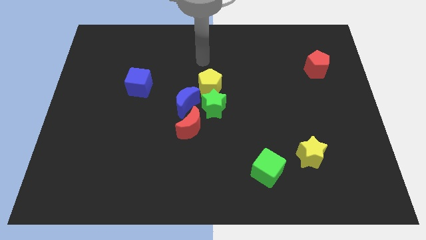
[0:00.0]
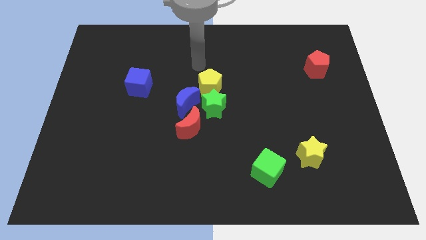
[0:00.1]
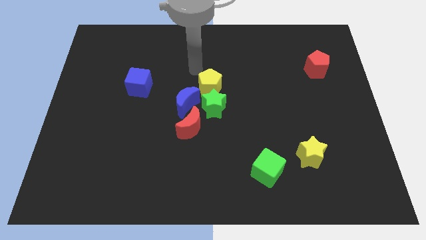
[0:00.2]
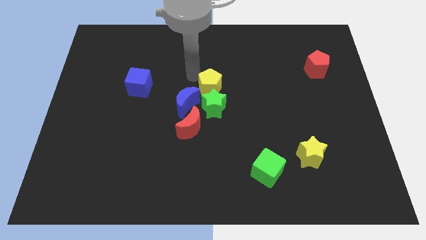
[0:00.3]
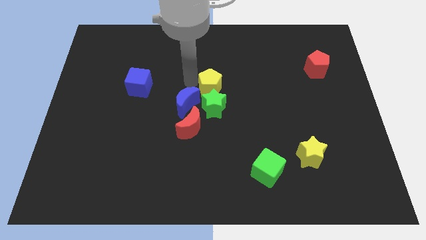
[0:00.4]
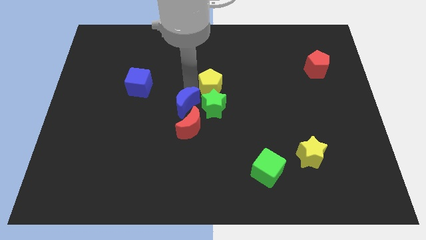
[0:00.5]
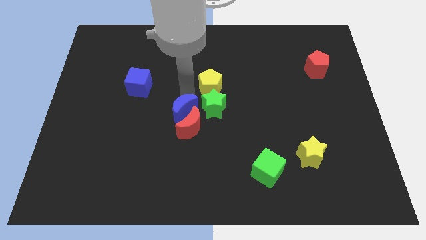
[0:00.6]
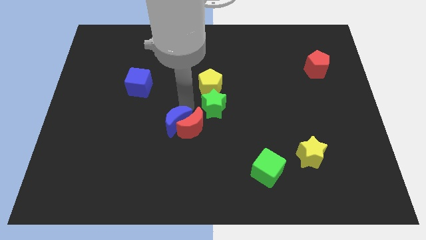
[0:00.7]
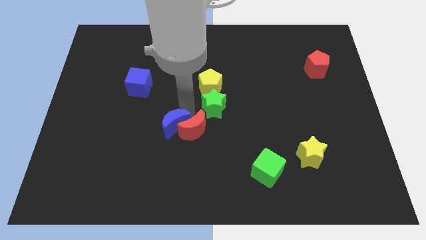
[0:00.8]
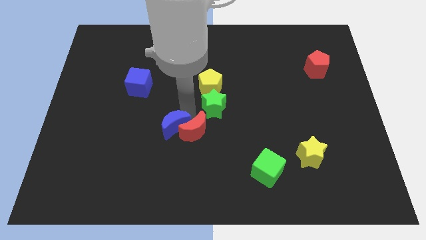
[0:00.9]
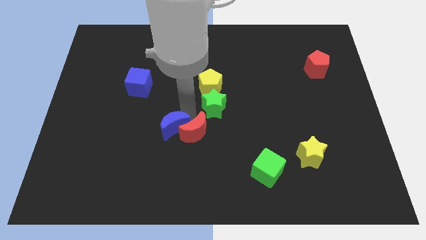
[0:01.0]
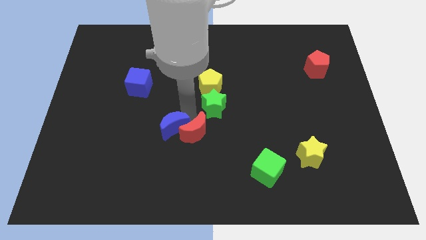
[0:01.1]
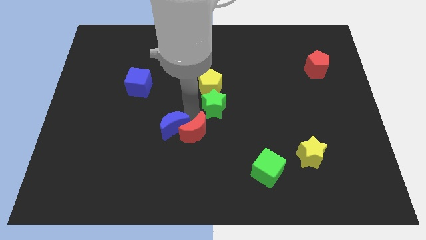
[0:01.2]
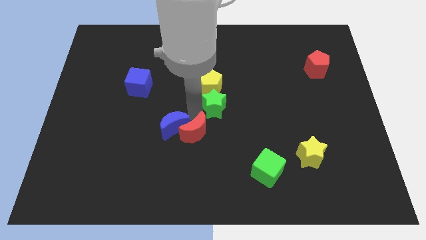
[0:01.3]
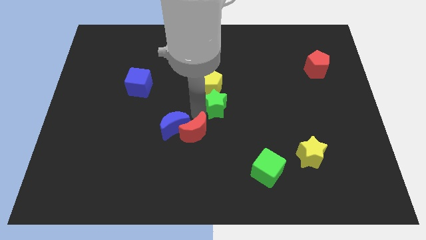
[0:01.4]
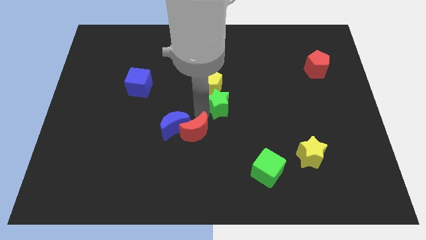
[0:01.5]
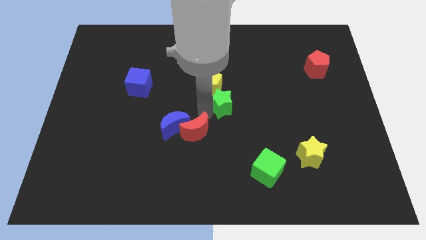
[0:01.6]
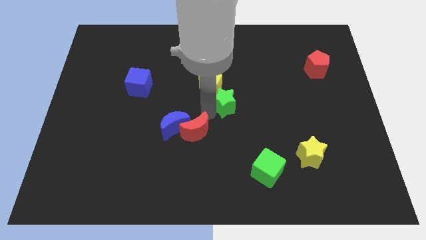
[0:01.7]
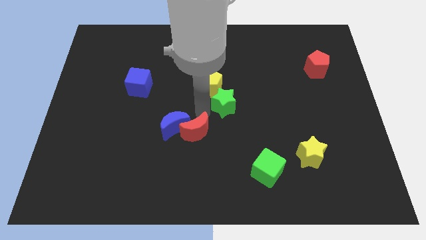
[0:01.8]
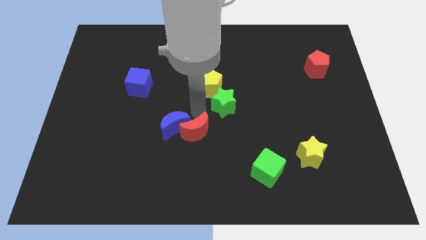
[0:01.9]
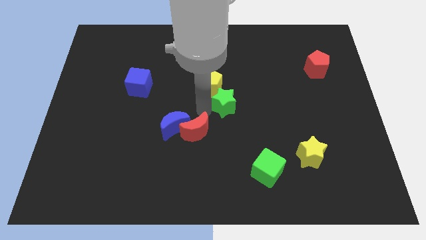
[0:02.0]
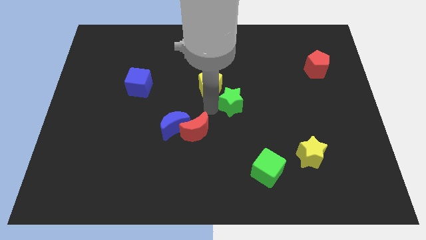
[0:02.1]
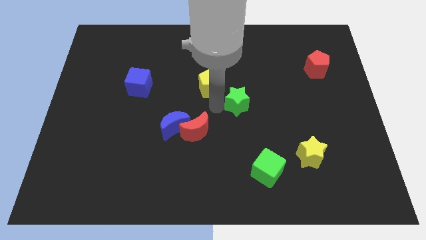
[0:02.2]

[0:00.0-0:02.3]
move the green star away from the yellow pentagon, blue moon, and red moon

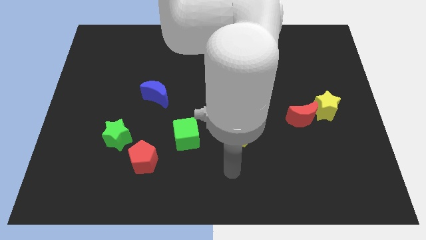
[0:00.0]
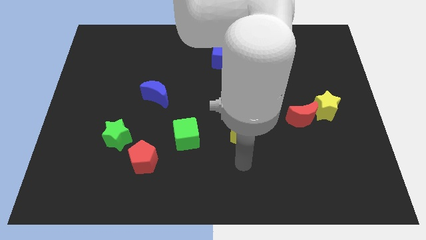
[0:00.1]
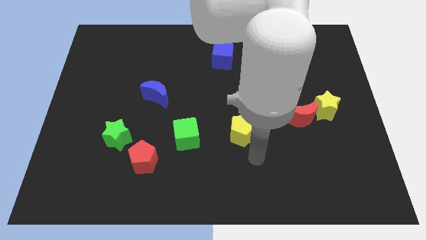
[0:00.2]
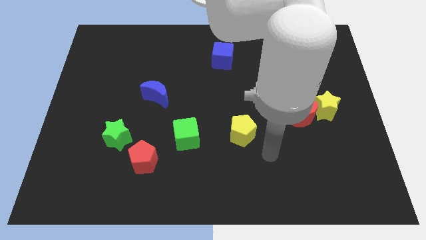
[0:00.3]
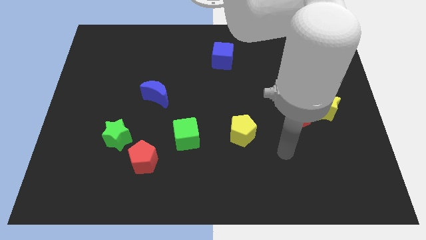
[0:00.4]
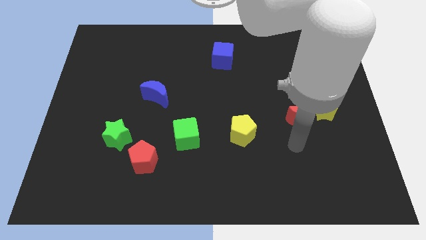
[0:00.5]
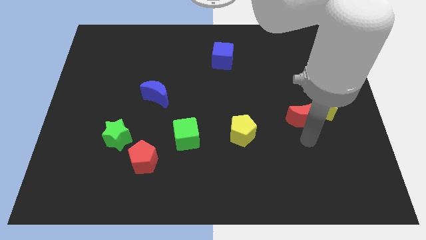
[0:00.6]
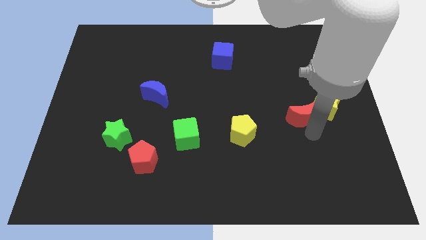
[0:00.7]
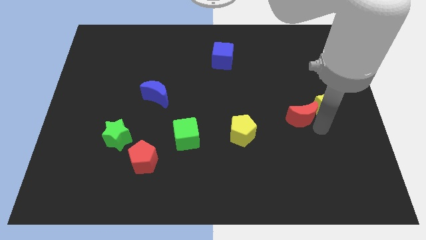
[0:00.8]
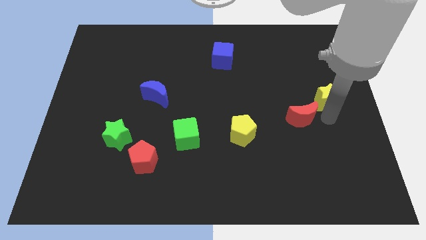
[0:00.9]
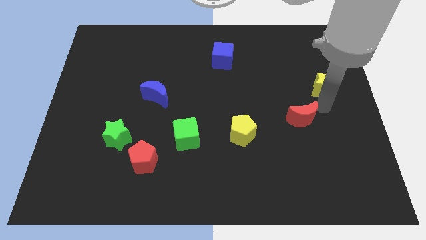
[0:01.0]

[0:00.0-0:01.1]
pull the red moon apart from the yellow star

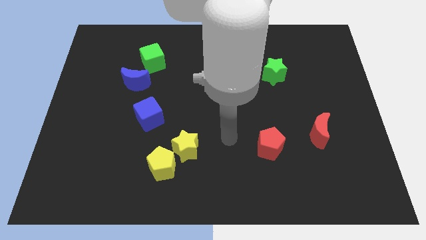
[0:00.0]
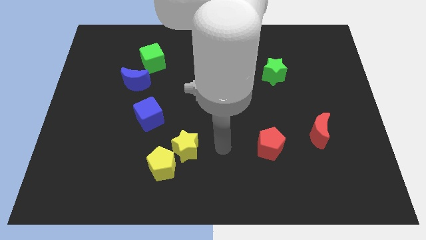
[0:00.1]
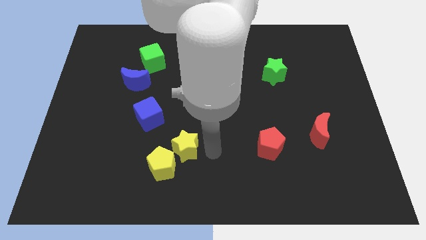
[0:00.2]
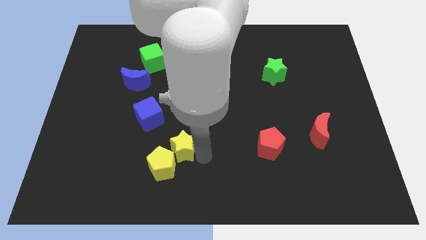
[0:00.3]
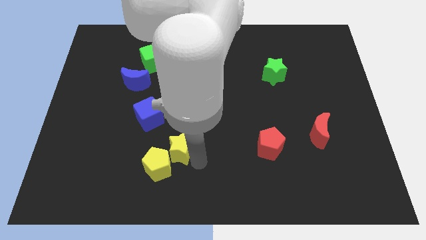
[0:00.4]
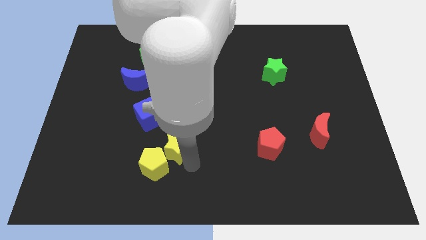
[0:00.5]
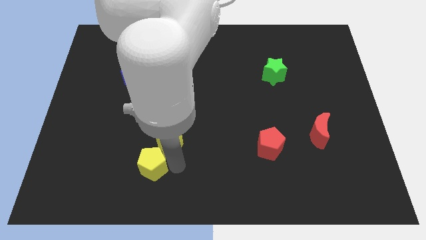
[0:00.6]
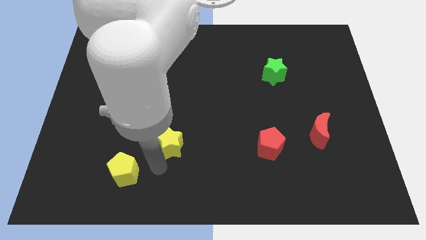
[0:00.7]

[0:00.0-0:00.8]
move the yellow star away from the yellow pentagon

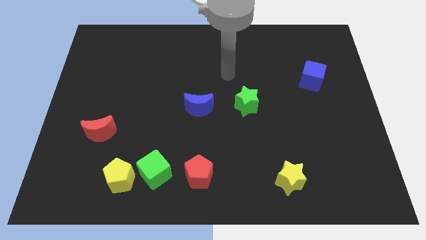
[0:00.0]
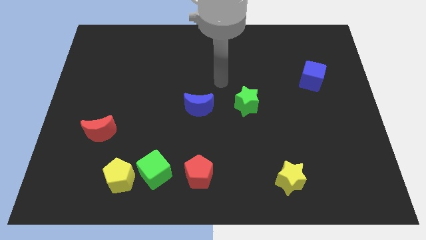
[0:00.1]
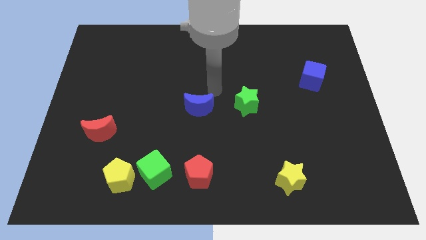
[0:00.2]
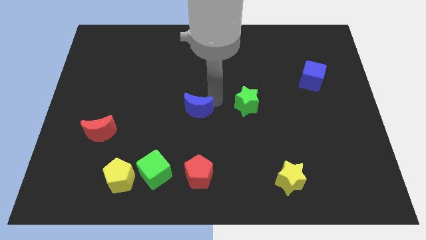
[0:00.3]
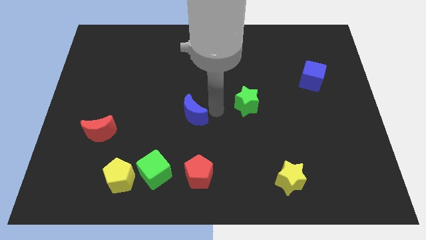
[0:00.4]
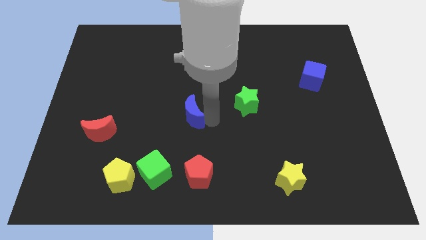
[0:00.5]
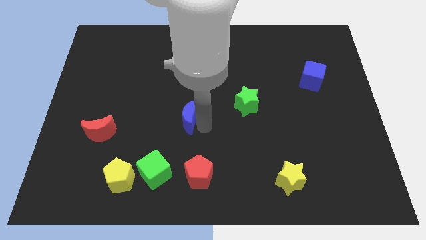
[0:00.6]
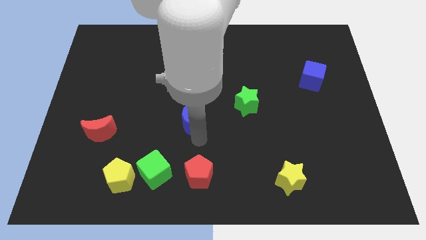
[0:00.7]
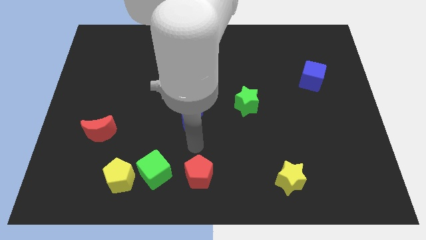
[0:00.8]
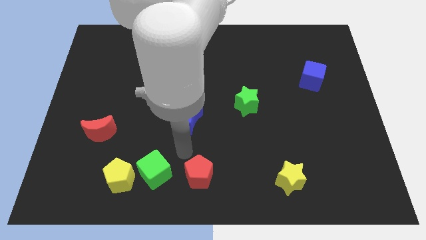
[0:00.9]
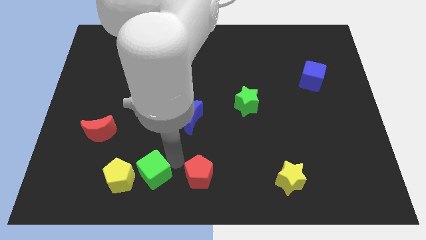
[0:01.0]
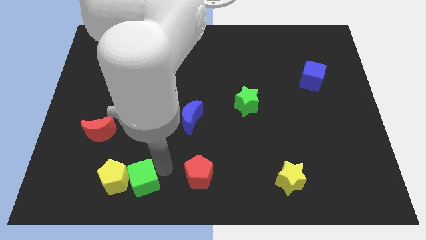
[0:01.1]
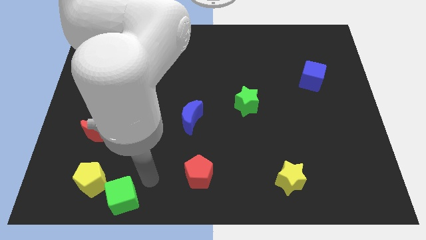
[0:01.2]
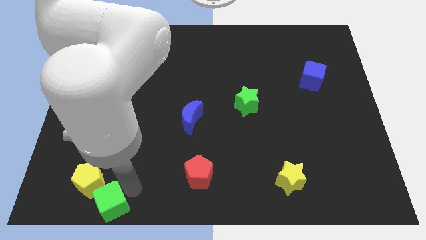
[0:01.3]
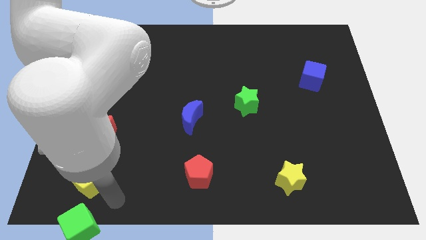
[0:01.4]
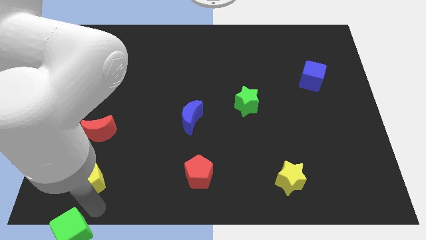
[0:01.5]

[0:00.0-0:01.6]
separate the yellow pentagon from the green cube

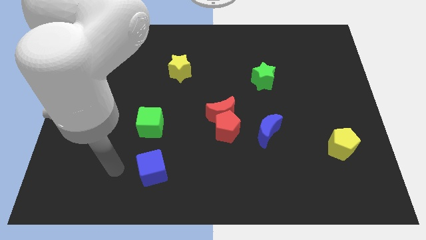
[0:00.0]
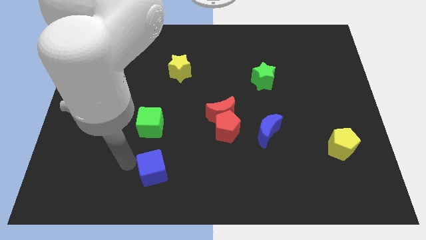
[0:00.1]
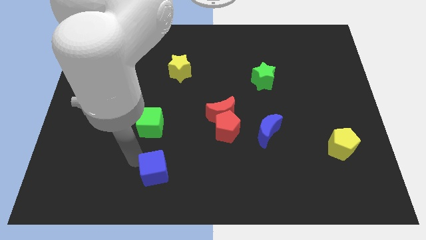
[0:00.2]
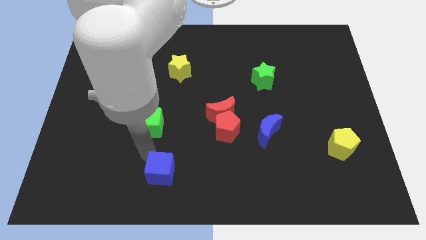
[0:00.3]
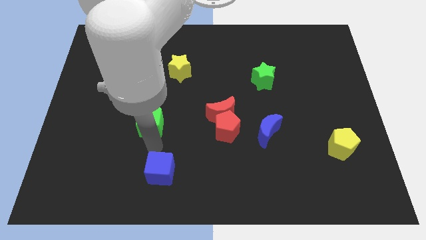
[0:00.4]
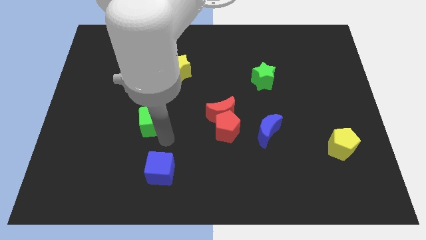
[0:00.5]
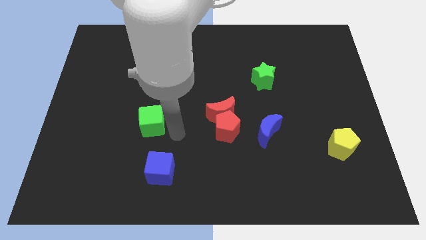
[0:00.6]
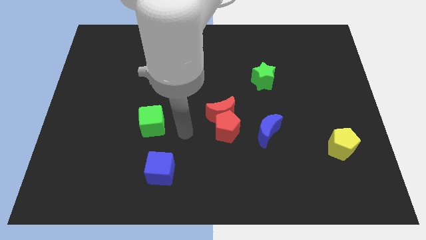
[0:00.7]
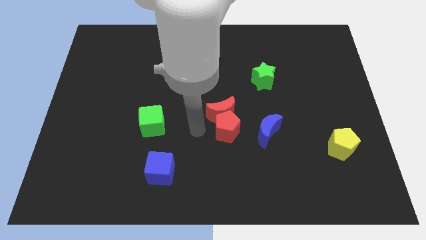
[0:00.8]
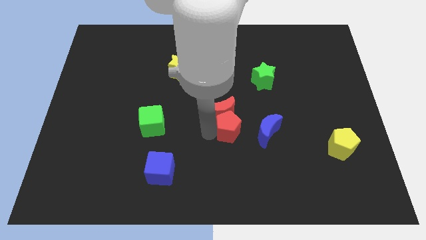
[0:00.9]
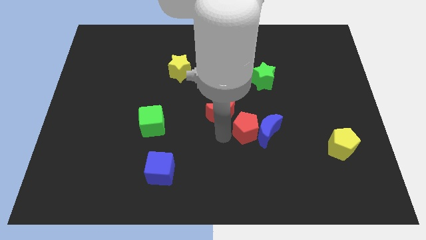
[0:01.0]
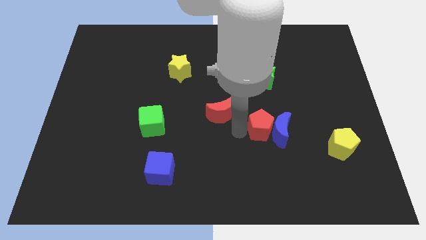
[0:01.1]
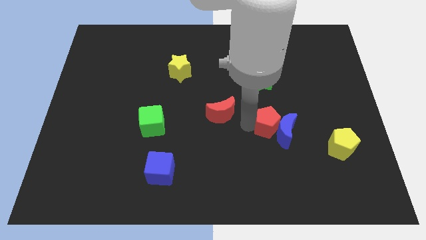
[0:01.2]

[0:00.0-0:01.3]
separate the red moon from the red pentagon

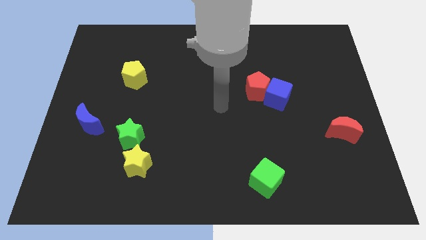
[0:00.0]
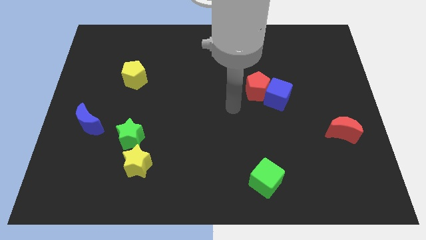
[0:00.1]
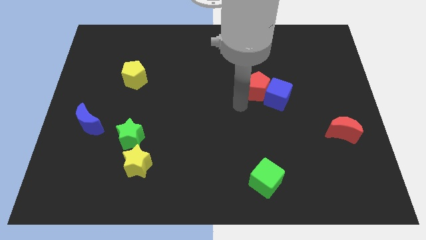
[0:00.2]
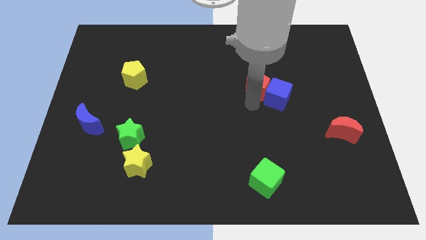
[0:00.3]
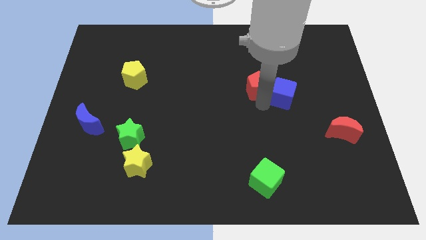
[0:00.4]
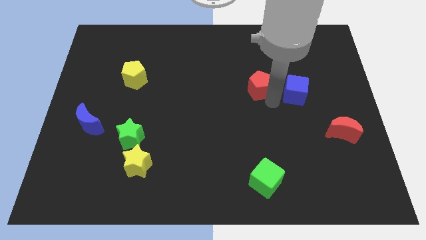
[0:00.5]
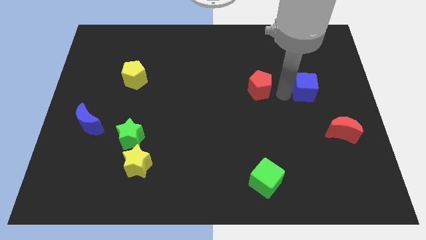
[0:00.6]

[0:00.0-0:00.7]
move the red pentagon away from the blue cube

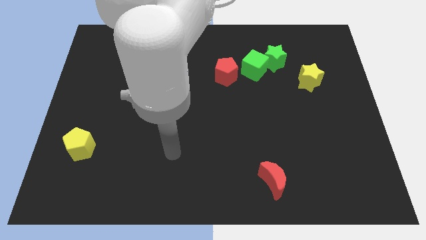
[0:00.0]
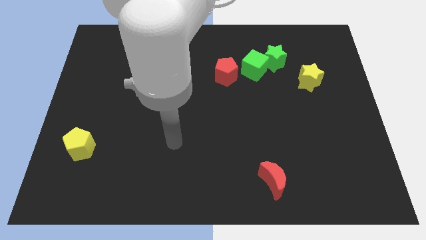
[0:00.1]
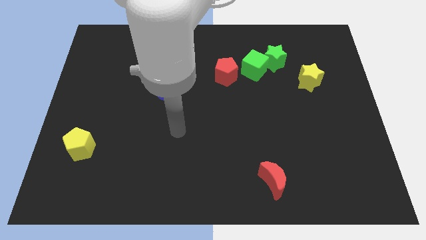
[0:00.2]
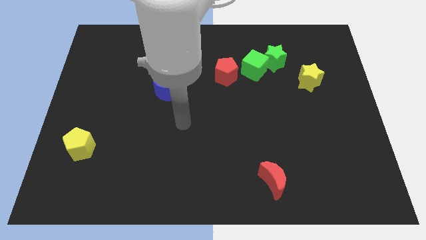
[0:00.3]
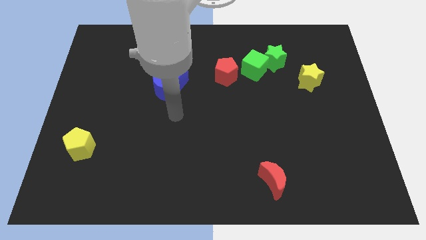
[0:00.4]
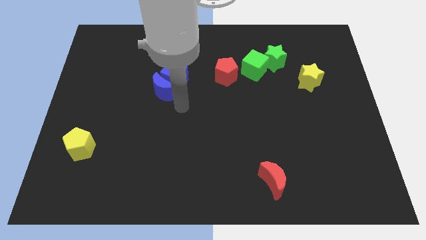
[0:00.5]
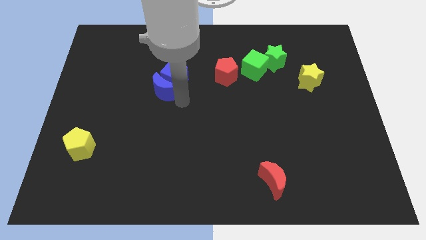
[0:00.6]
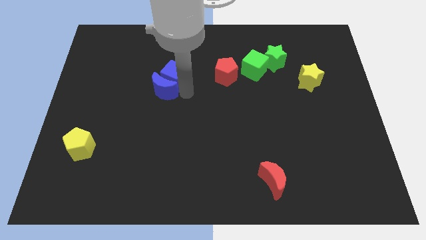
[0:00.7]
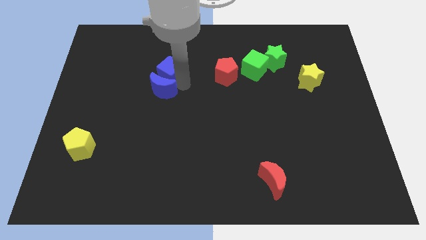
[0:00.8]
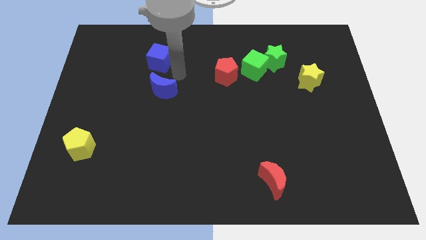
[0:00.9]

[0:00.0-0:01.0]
move the blue moon away from the blue cube

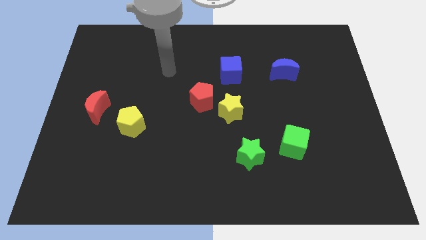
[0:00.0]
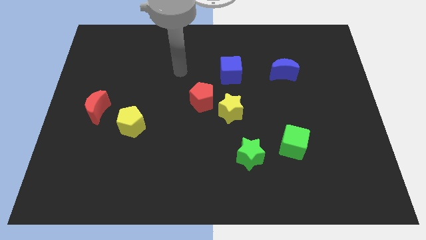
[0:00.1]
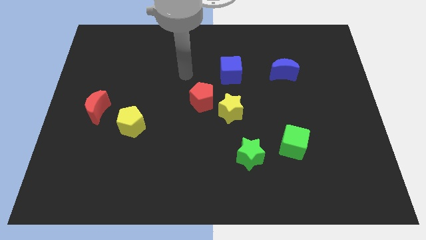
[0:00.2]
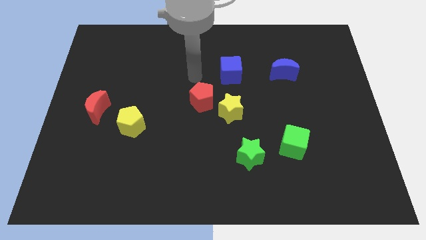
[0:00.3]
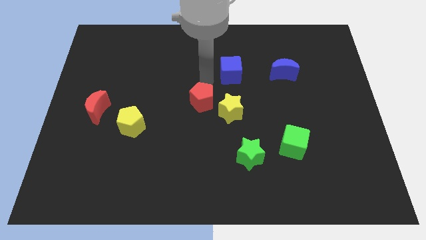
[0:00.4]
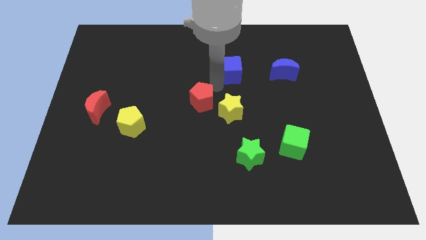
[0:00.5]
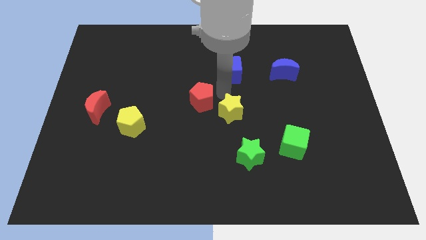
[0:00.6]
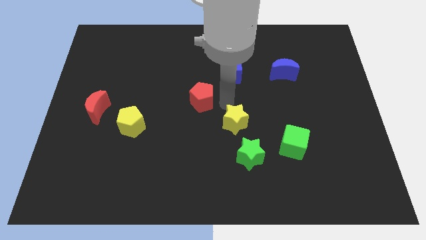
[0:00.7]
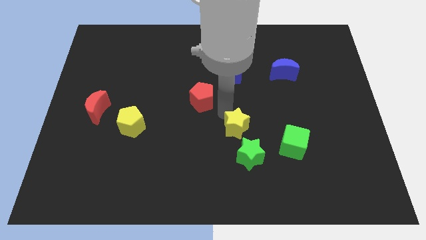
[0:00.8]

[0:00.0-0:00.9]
separate the red pentagon from the yellow star
